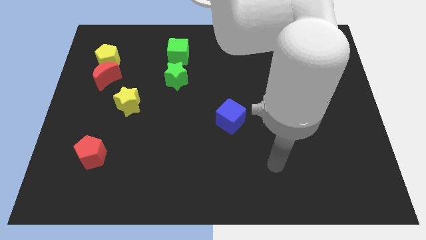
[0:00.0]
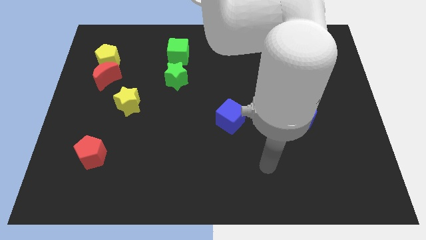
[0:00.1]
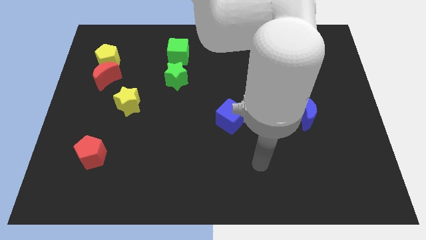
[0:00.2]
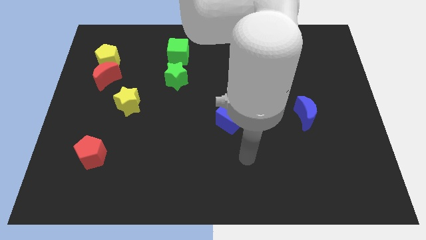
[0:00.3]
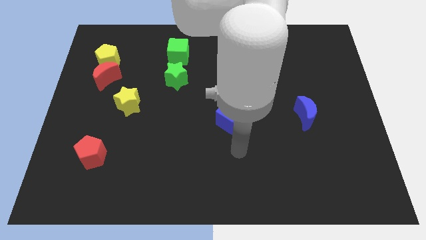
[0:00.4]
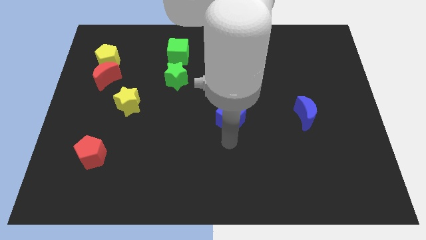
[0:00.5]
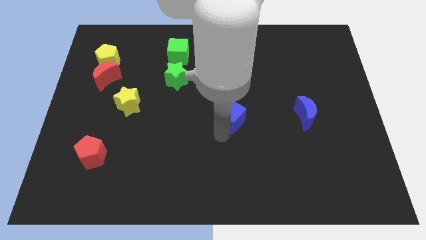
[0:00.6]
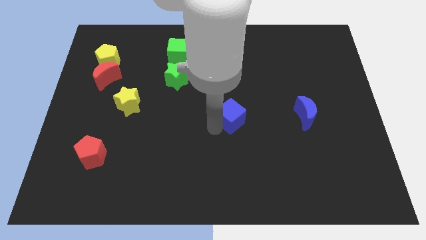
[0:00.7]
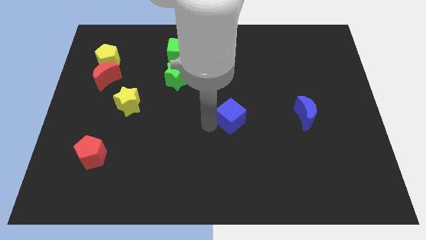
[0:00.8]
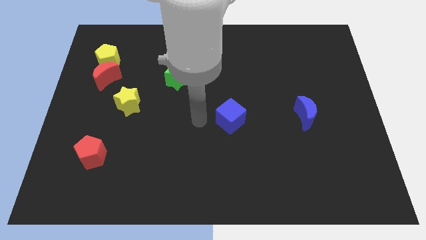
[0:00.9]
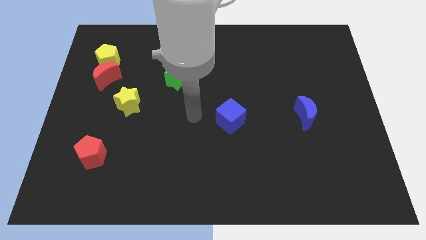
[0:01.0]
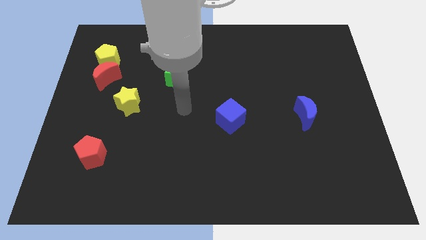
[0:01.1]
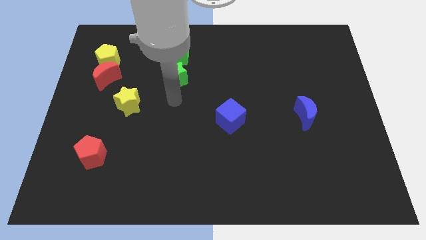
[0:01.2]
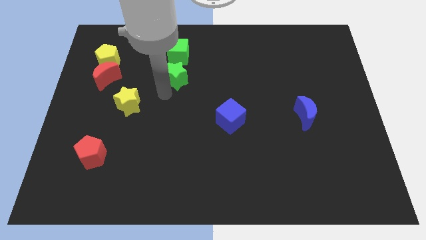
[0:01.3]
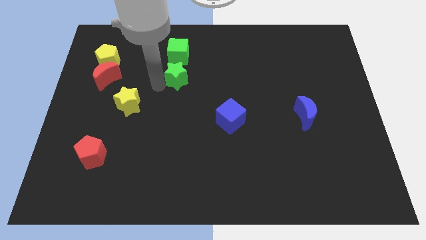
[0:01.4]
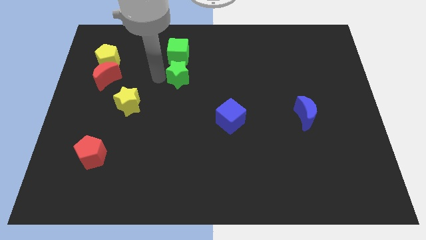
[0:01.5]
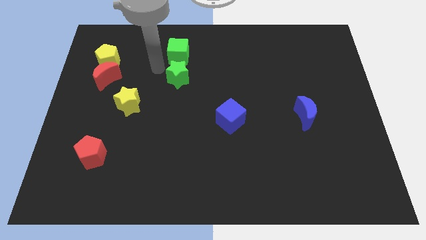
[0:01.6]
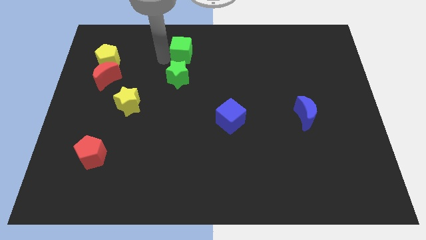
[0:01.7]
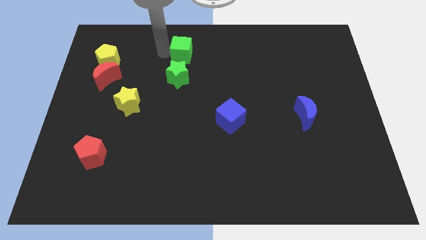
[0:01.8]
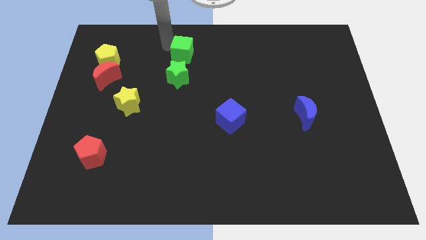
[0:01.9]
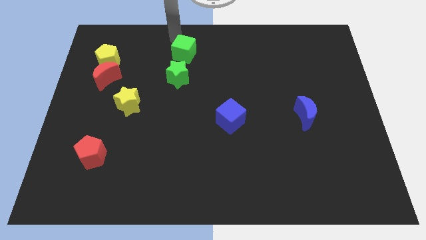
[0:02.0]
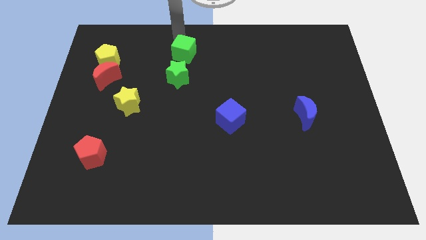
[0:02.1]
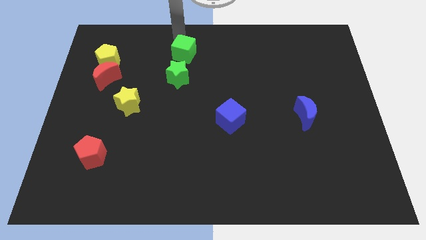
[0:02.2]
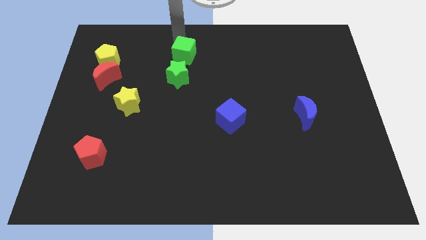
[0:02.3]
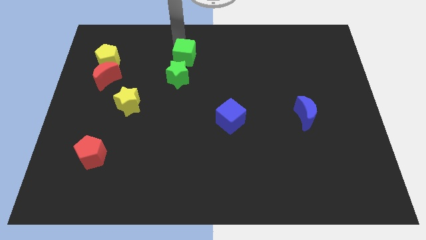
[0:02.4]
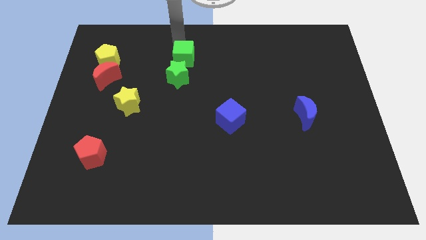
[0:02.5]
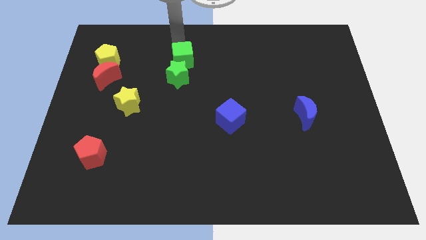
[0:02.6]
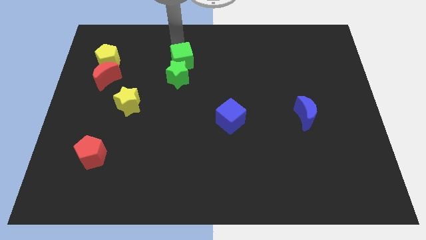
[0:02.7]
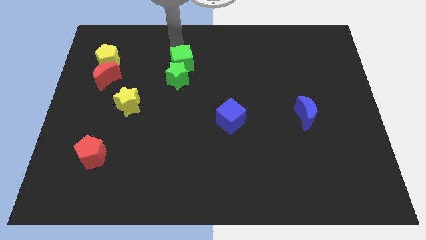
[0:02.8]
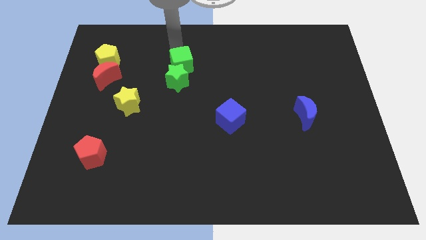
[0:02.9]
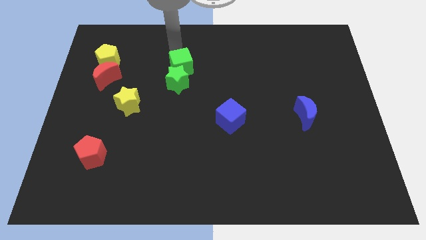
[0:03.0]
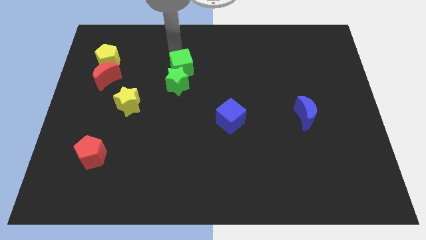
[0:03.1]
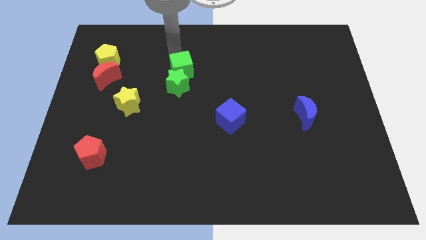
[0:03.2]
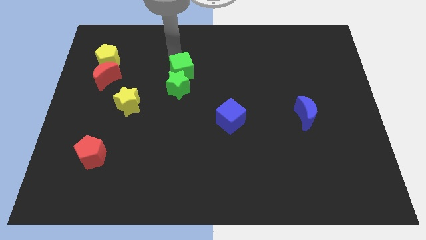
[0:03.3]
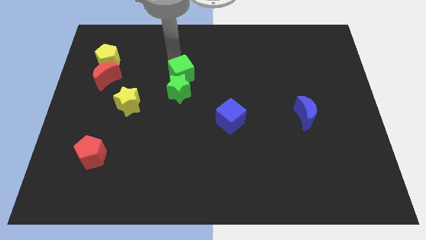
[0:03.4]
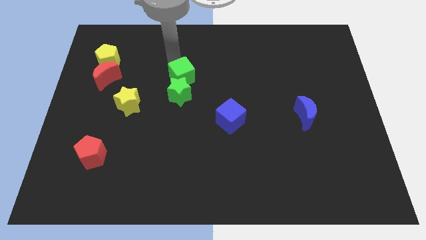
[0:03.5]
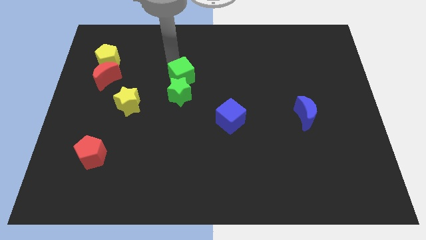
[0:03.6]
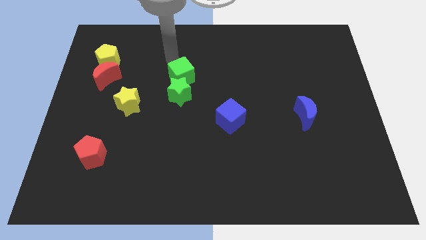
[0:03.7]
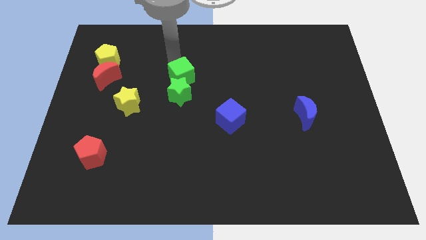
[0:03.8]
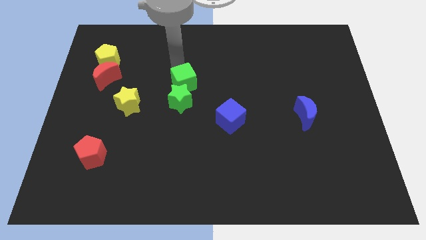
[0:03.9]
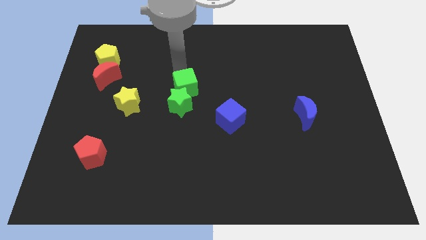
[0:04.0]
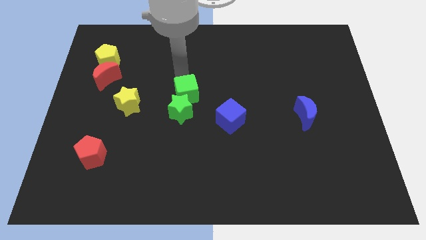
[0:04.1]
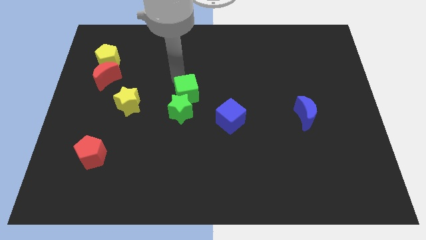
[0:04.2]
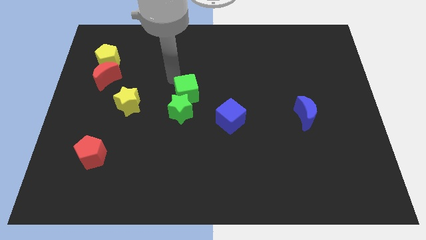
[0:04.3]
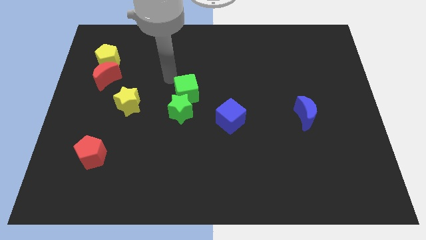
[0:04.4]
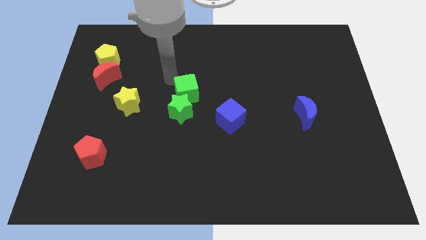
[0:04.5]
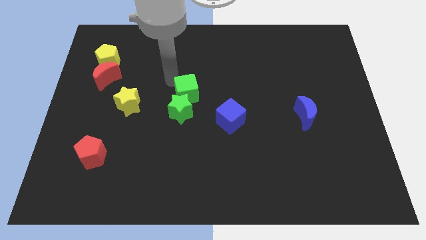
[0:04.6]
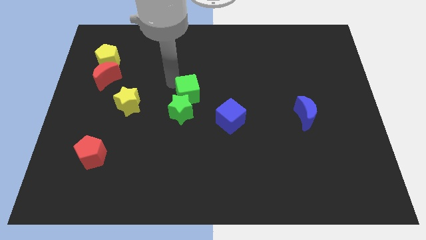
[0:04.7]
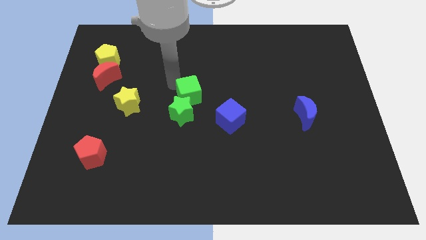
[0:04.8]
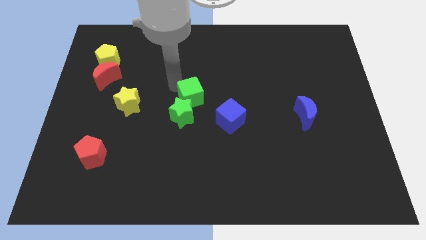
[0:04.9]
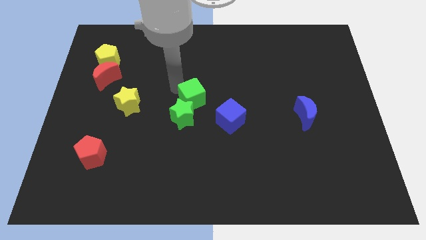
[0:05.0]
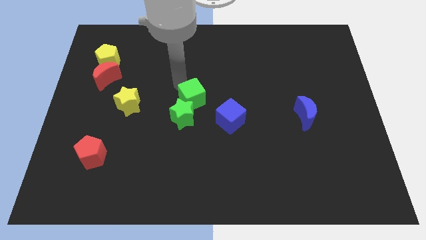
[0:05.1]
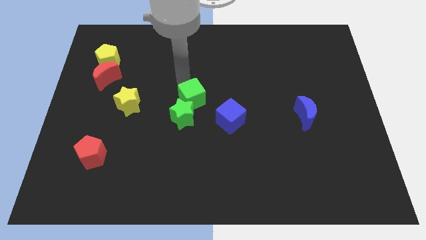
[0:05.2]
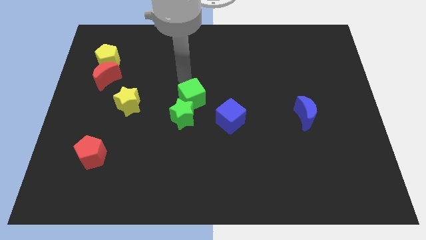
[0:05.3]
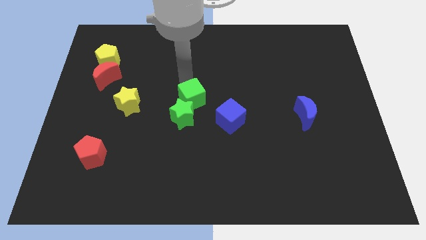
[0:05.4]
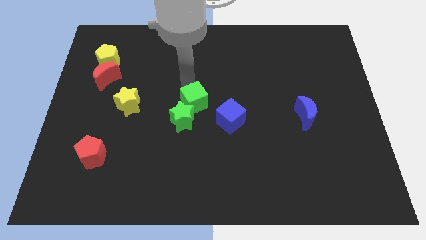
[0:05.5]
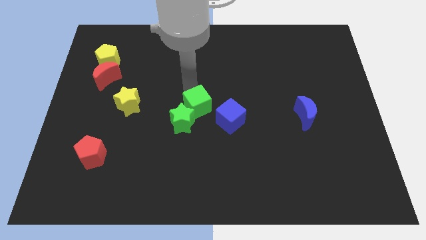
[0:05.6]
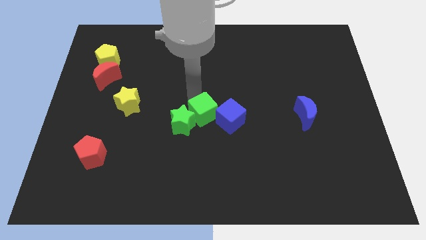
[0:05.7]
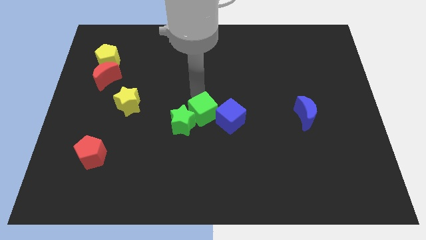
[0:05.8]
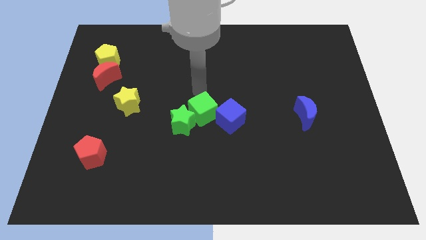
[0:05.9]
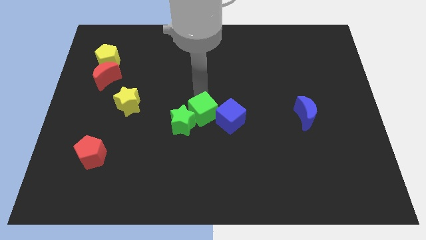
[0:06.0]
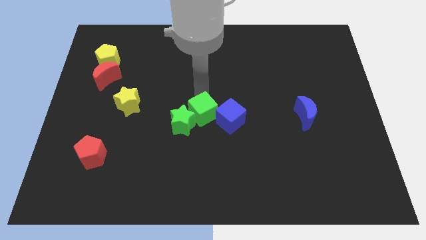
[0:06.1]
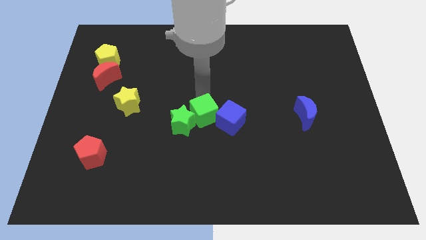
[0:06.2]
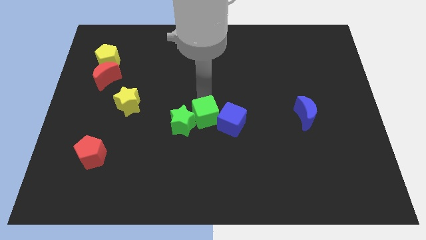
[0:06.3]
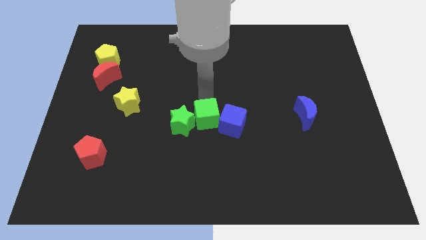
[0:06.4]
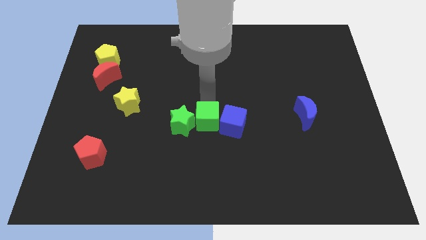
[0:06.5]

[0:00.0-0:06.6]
push the green cube to the bottom left side of the blue cube

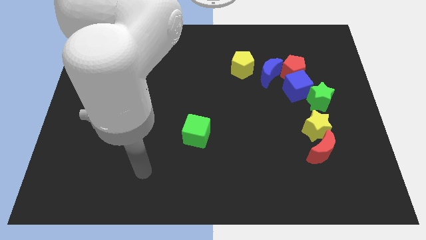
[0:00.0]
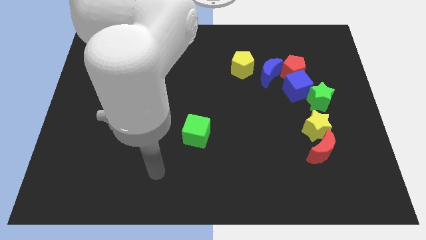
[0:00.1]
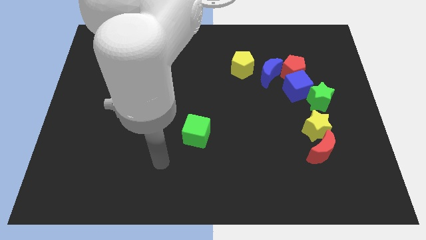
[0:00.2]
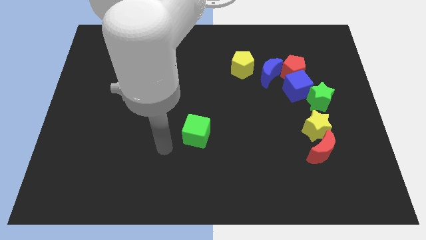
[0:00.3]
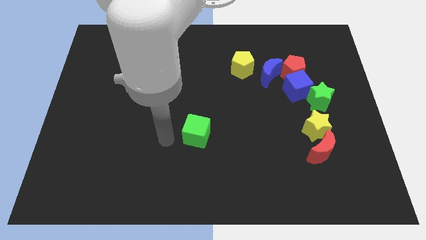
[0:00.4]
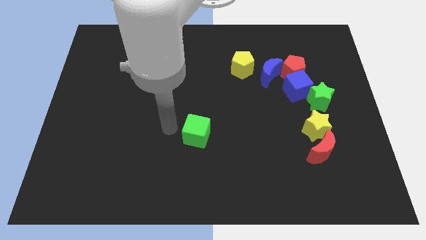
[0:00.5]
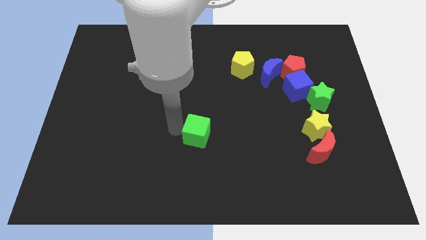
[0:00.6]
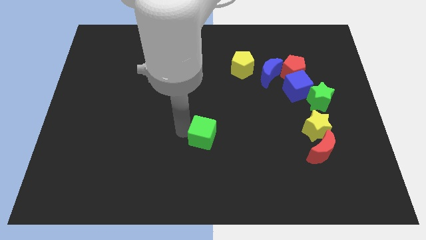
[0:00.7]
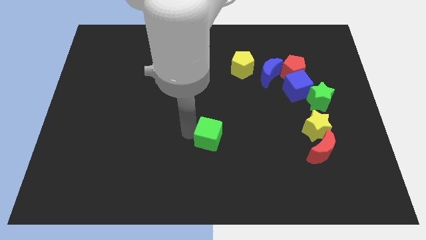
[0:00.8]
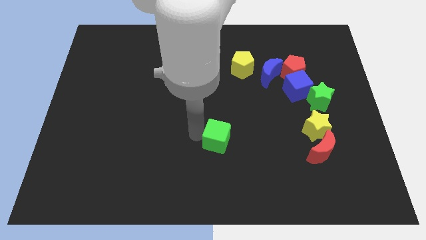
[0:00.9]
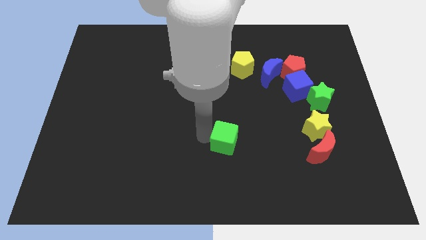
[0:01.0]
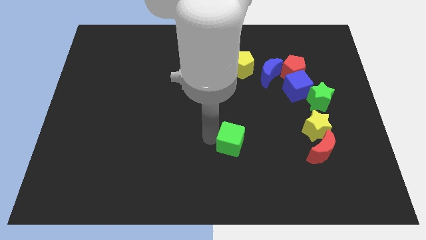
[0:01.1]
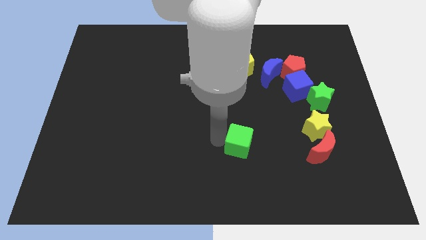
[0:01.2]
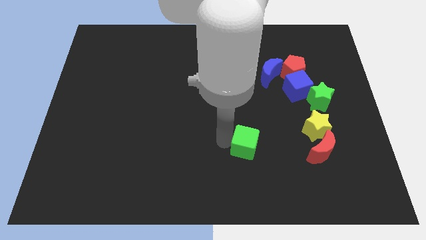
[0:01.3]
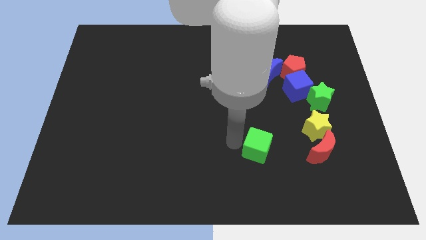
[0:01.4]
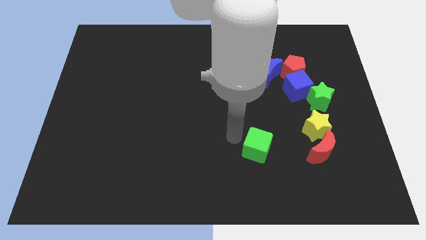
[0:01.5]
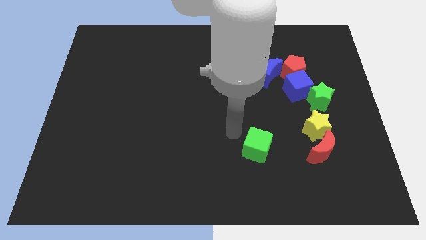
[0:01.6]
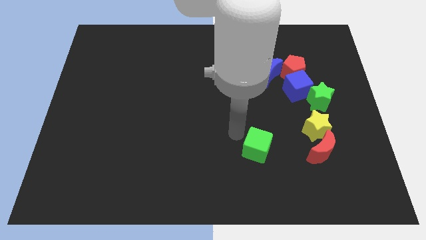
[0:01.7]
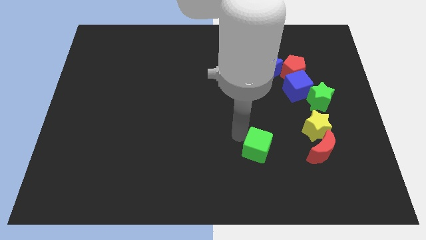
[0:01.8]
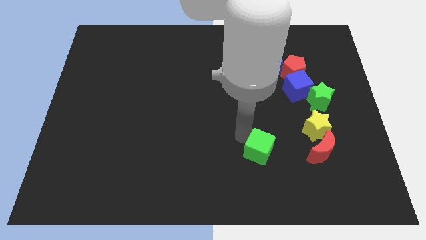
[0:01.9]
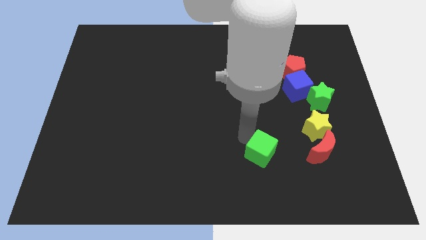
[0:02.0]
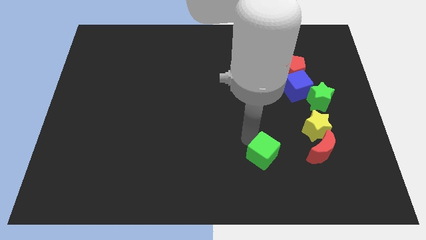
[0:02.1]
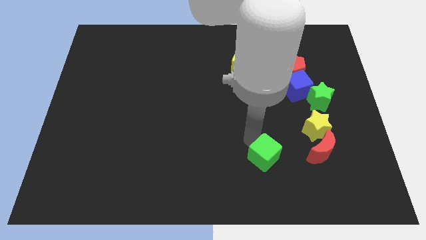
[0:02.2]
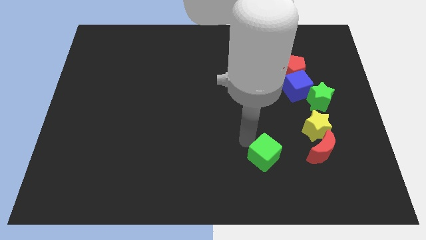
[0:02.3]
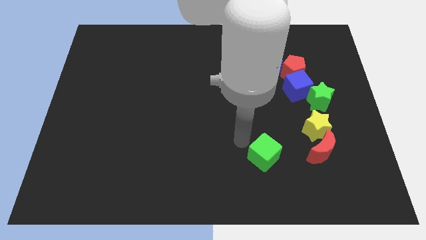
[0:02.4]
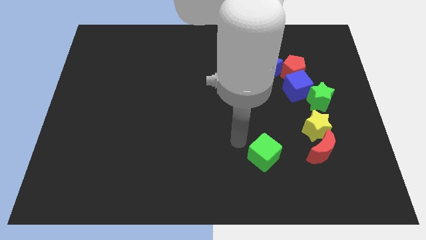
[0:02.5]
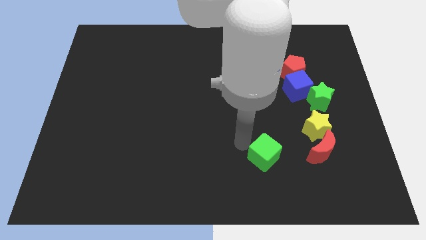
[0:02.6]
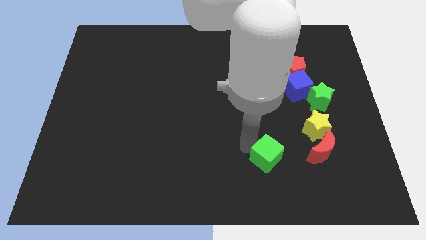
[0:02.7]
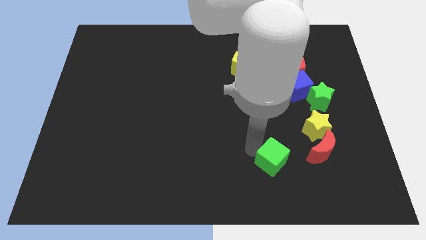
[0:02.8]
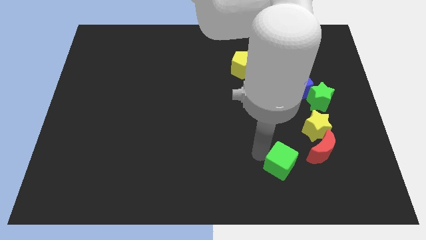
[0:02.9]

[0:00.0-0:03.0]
move the green cube to the bottom left side of the red moon
